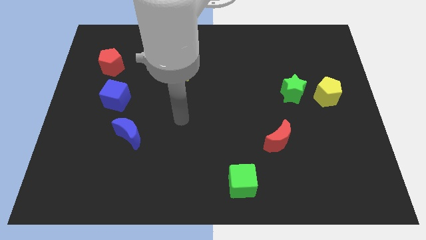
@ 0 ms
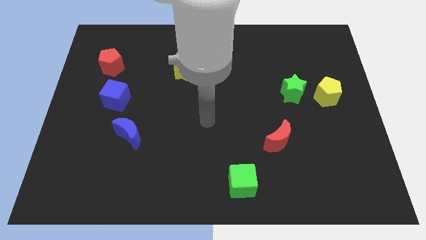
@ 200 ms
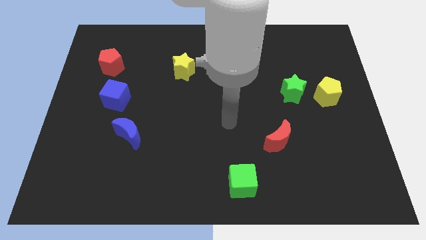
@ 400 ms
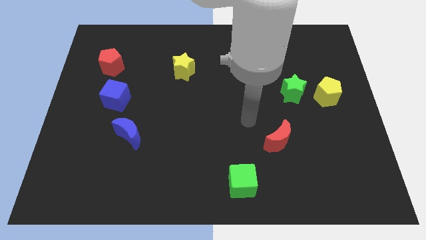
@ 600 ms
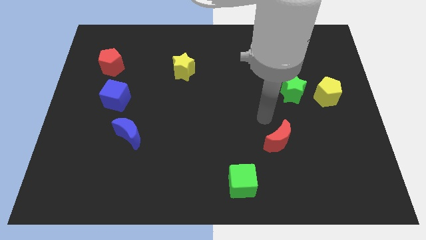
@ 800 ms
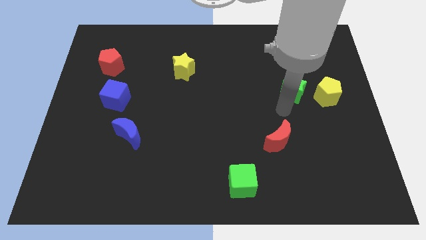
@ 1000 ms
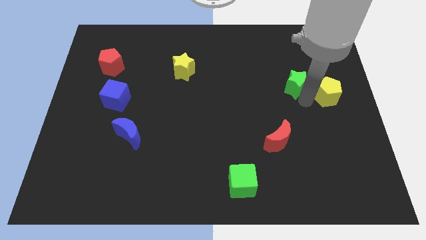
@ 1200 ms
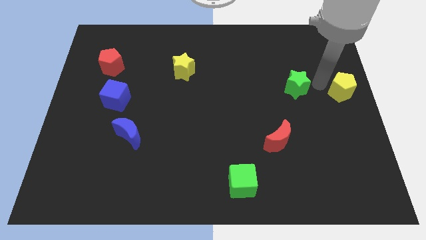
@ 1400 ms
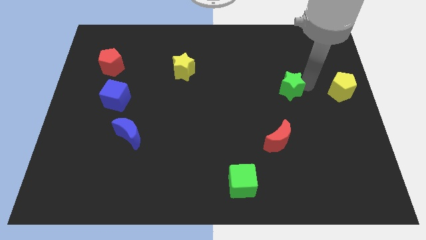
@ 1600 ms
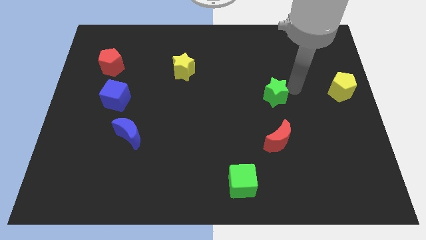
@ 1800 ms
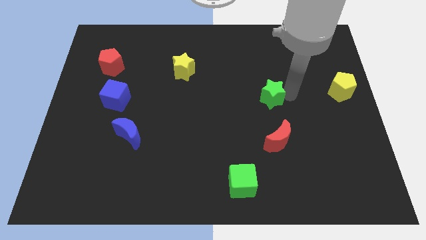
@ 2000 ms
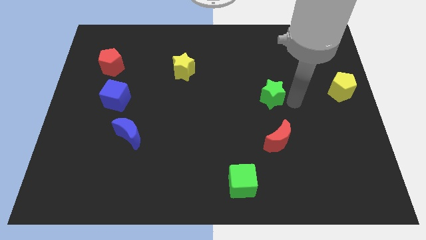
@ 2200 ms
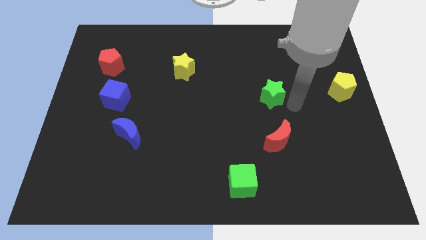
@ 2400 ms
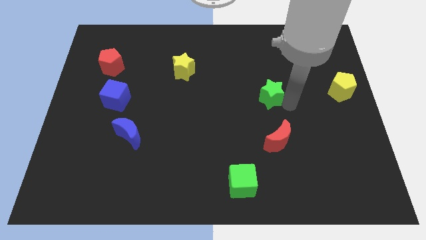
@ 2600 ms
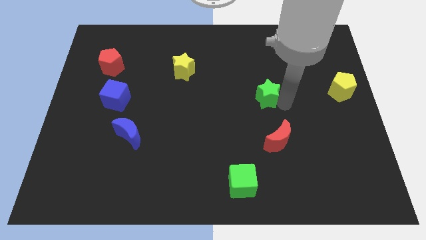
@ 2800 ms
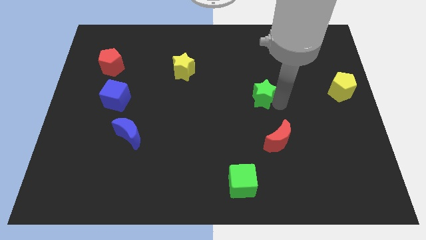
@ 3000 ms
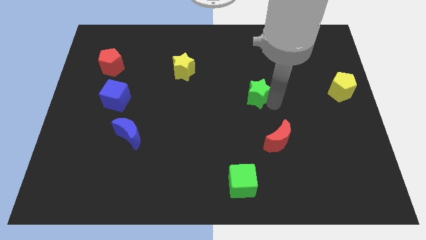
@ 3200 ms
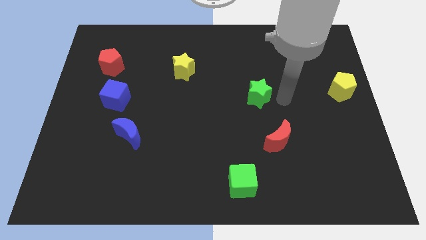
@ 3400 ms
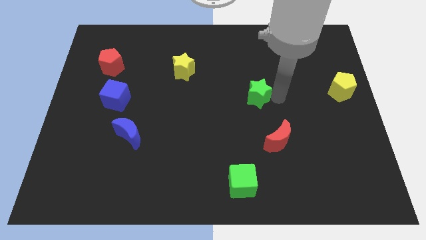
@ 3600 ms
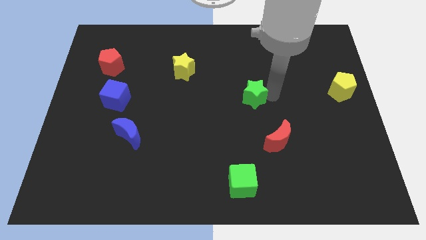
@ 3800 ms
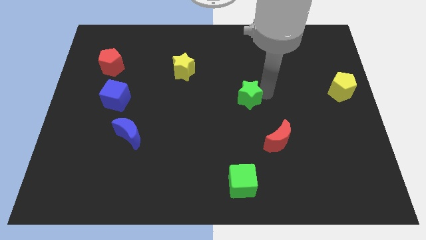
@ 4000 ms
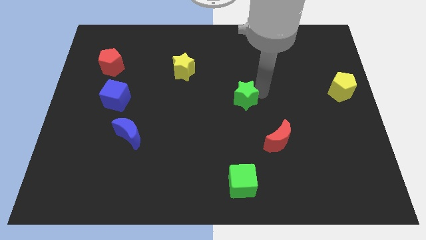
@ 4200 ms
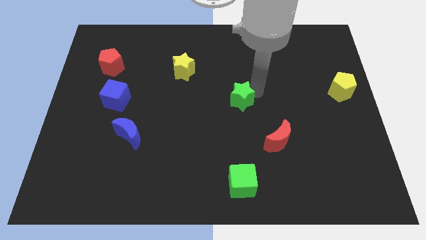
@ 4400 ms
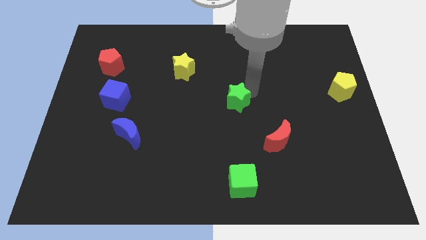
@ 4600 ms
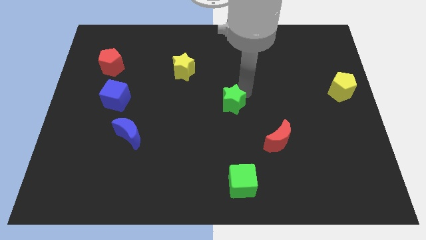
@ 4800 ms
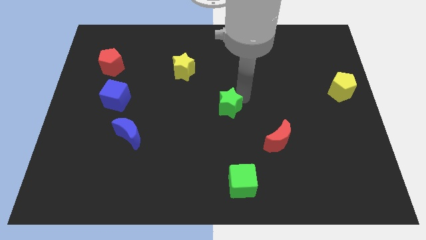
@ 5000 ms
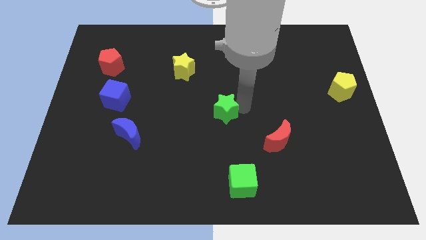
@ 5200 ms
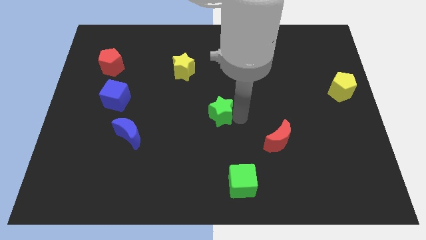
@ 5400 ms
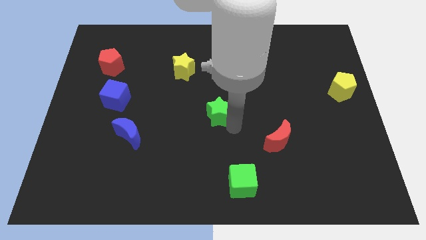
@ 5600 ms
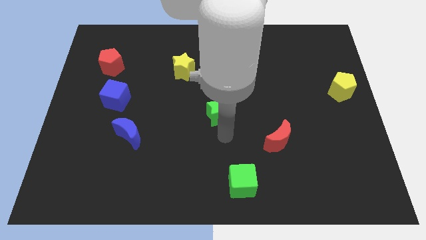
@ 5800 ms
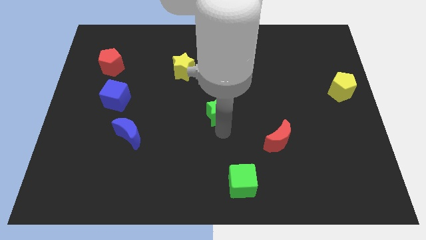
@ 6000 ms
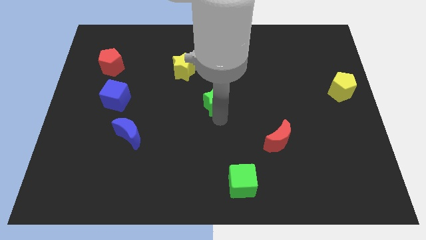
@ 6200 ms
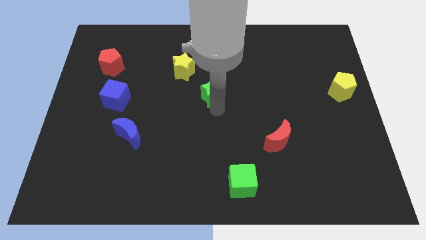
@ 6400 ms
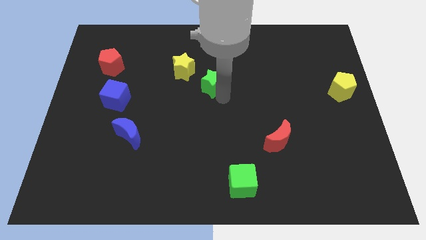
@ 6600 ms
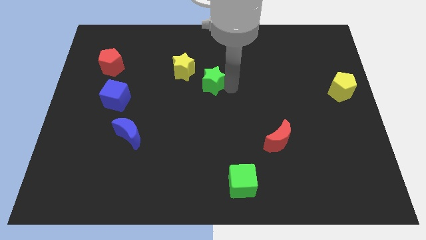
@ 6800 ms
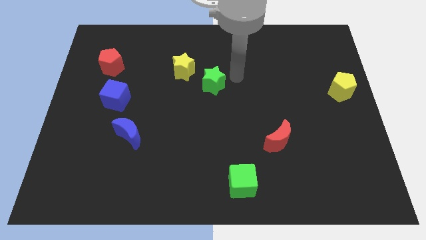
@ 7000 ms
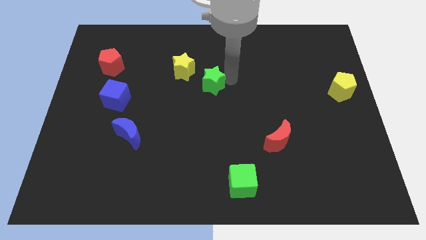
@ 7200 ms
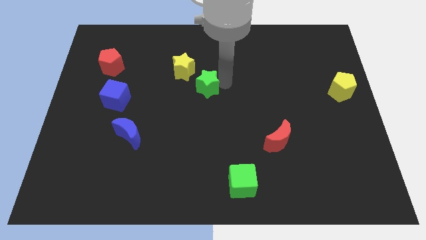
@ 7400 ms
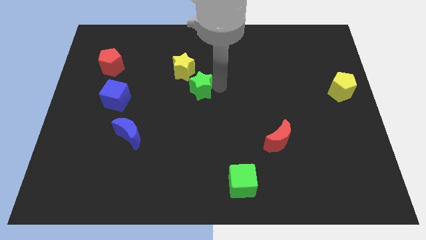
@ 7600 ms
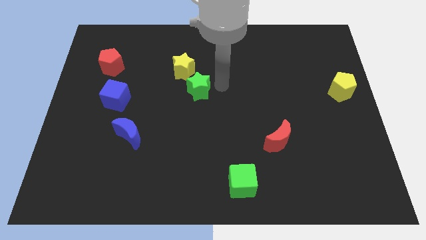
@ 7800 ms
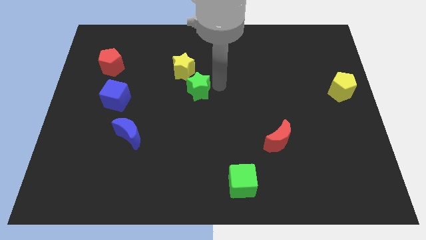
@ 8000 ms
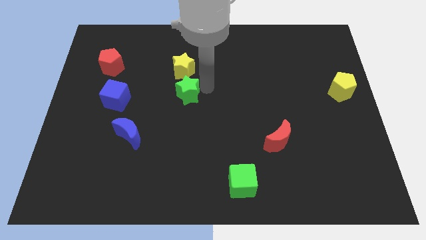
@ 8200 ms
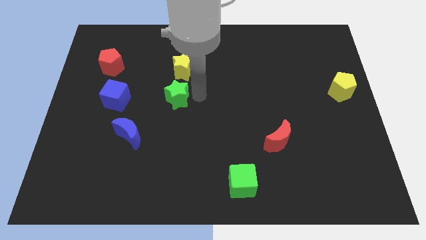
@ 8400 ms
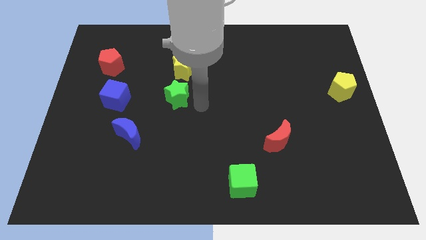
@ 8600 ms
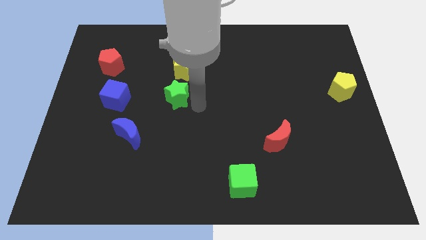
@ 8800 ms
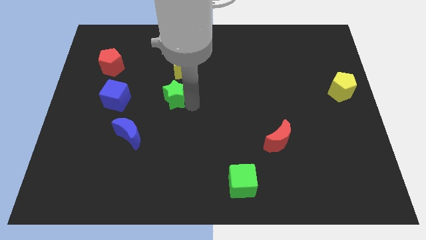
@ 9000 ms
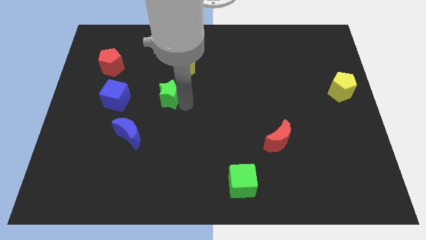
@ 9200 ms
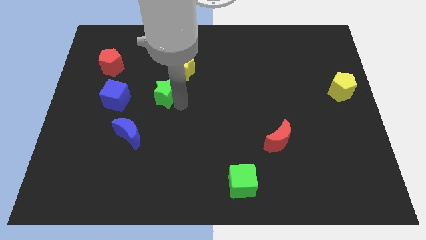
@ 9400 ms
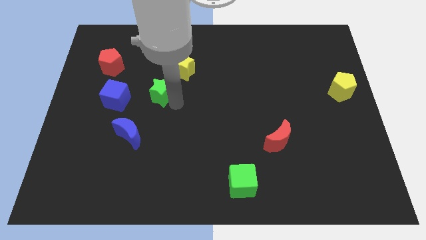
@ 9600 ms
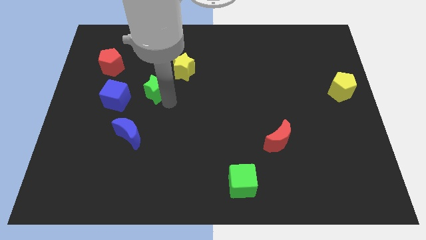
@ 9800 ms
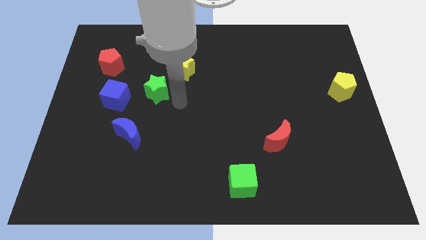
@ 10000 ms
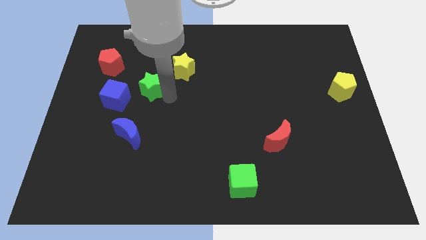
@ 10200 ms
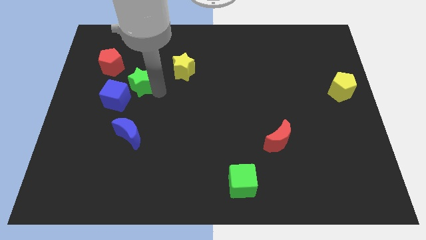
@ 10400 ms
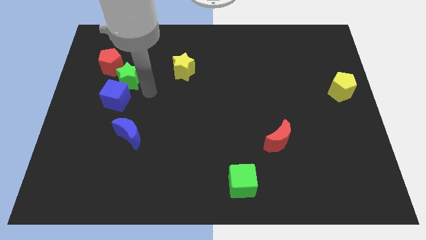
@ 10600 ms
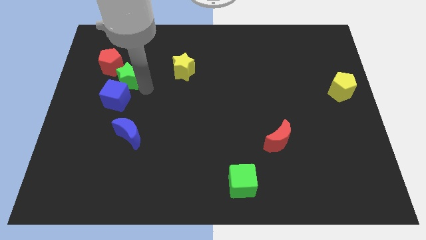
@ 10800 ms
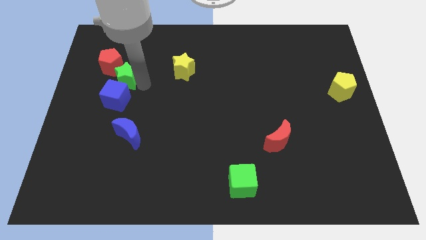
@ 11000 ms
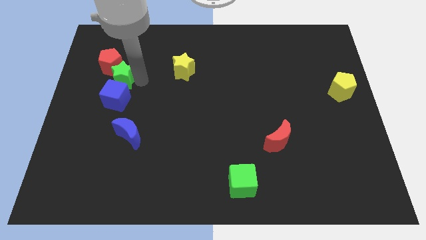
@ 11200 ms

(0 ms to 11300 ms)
move the green star towards the red pentagon

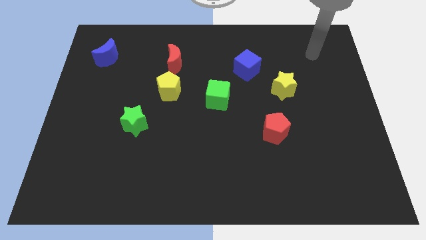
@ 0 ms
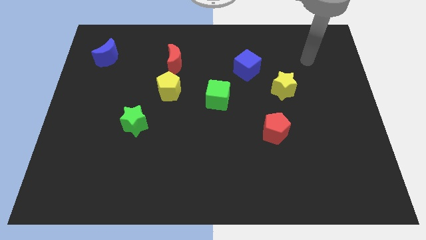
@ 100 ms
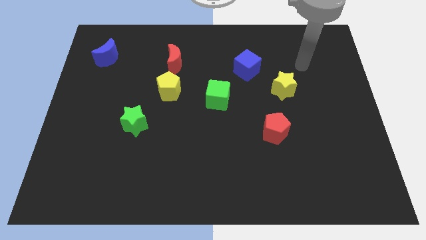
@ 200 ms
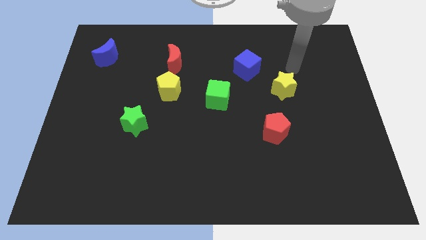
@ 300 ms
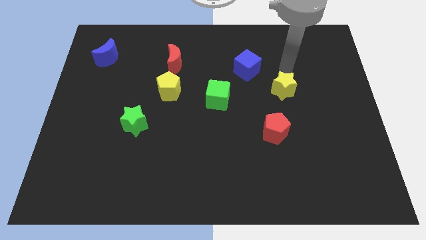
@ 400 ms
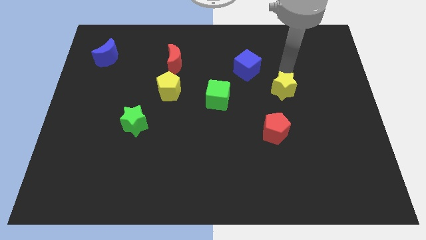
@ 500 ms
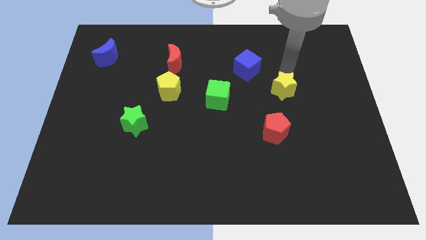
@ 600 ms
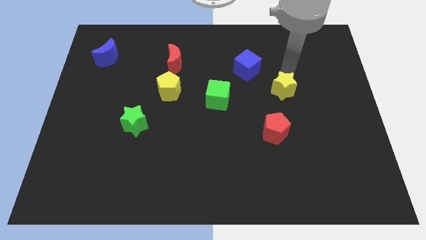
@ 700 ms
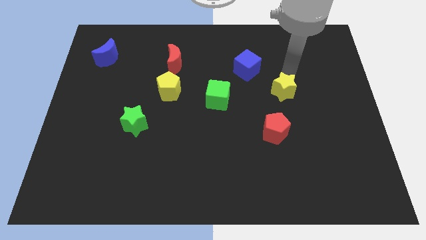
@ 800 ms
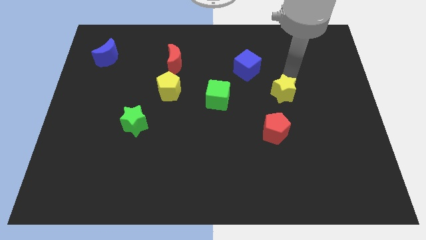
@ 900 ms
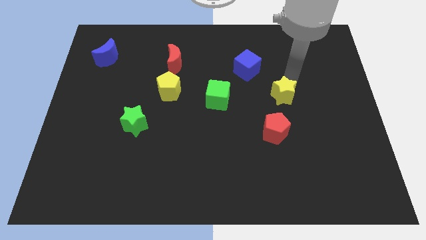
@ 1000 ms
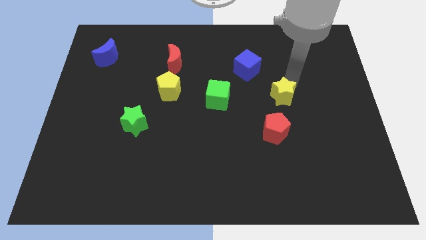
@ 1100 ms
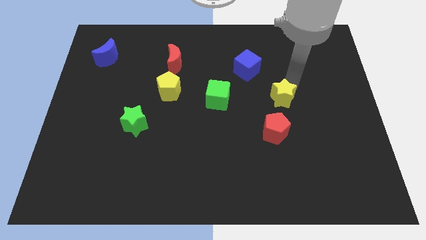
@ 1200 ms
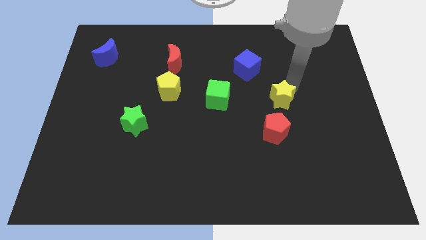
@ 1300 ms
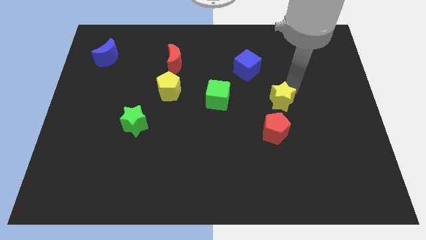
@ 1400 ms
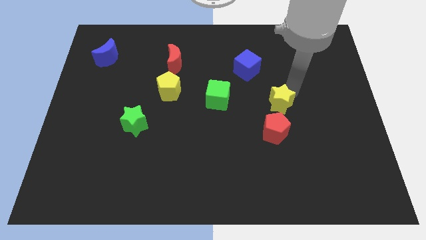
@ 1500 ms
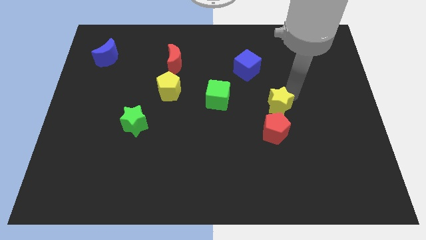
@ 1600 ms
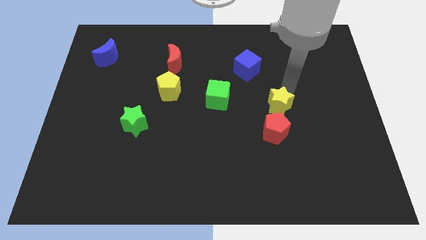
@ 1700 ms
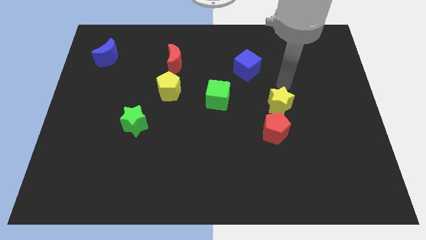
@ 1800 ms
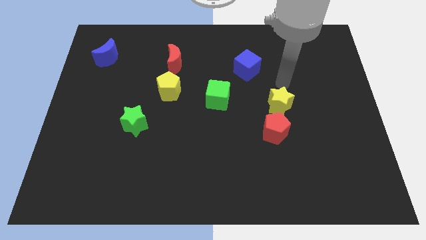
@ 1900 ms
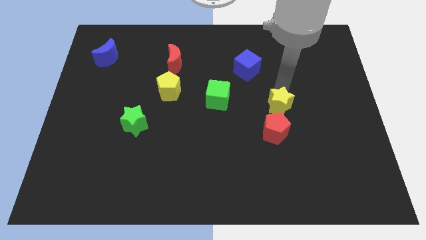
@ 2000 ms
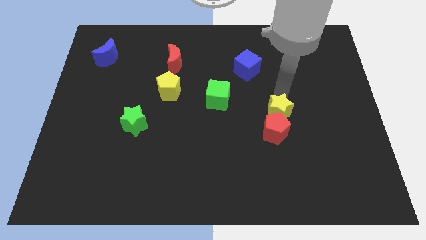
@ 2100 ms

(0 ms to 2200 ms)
push the yellow star to the red pentagon
